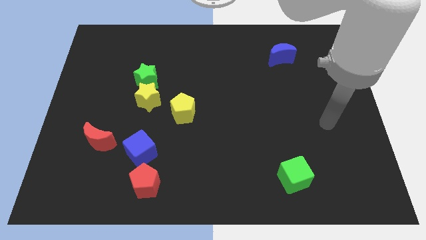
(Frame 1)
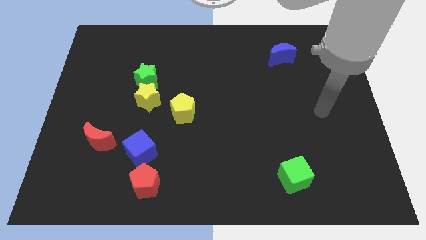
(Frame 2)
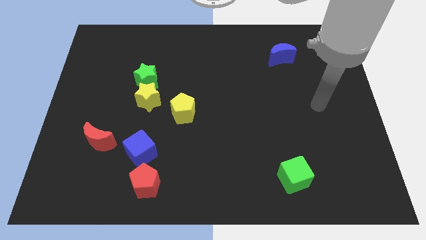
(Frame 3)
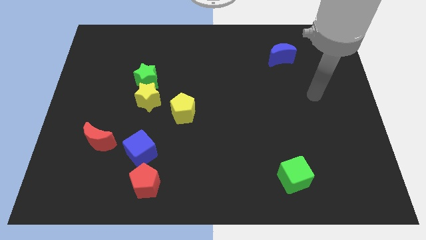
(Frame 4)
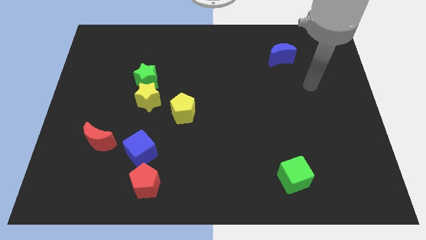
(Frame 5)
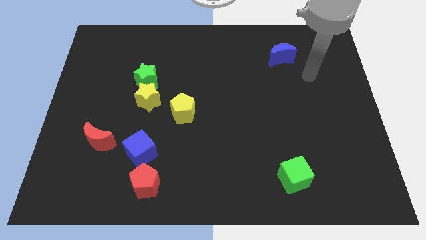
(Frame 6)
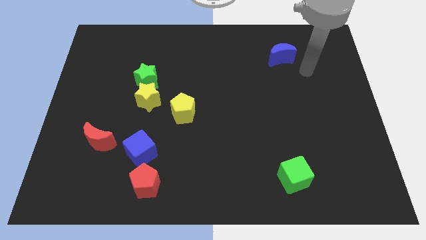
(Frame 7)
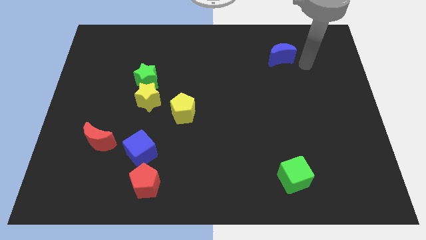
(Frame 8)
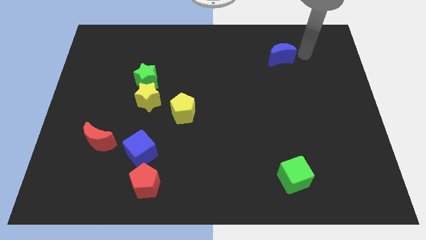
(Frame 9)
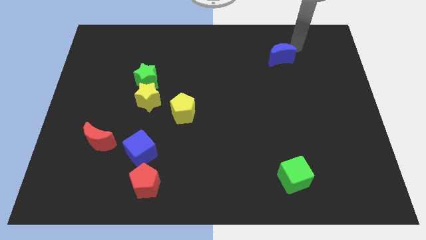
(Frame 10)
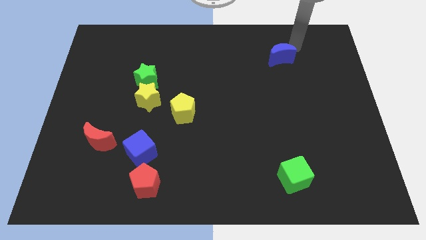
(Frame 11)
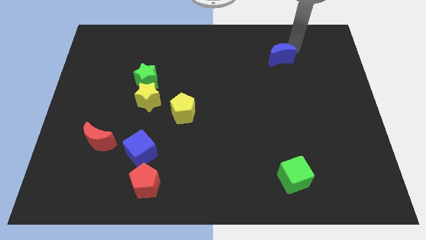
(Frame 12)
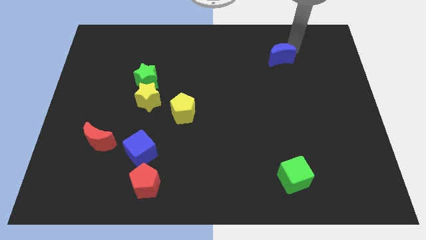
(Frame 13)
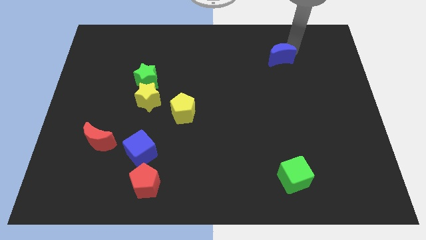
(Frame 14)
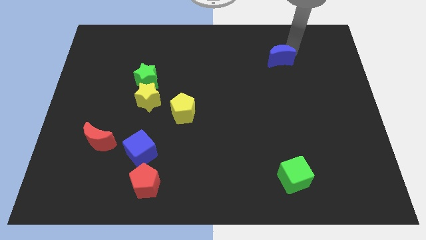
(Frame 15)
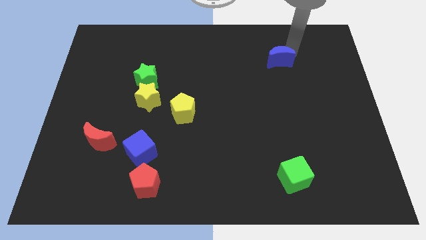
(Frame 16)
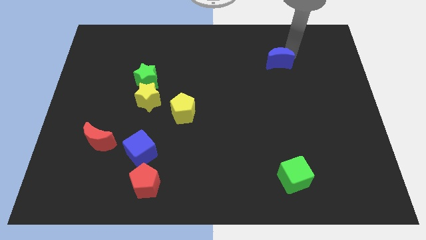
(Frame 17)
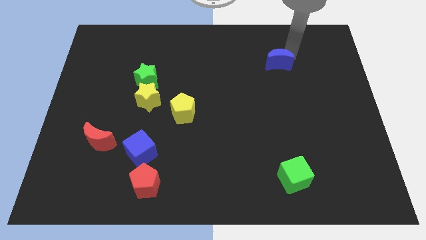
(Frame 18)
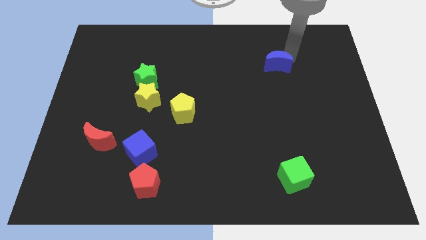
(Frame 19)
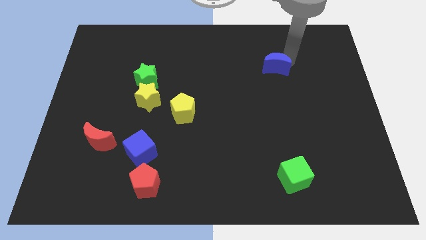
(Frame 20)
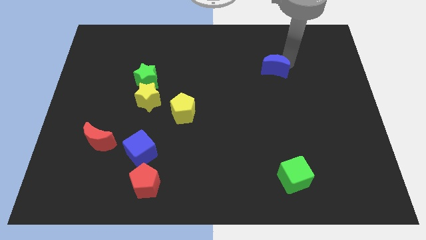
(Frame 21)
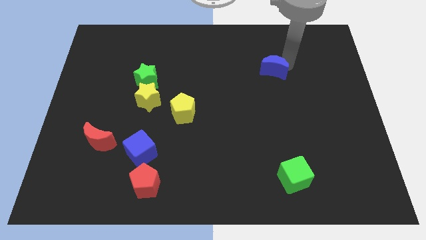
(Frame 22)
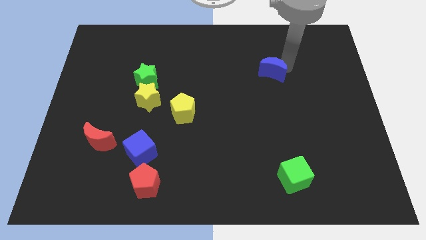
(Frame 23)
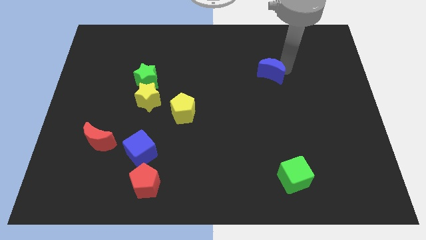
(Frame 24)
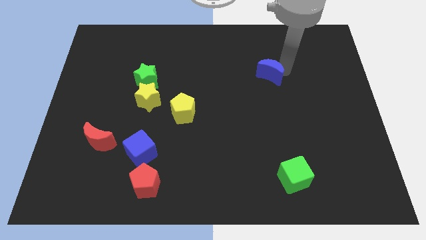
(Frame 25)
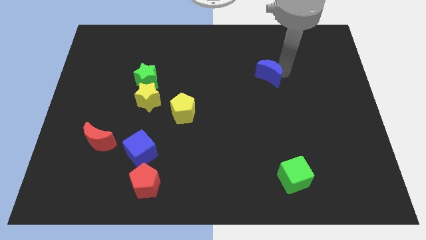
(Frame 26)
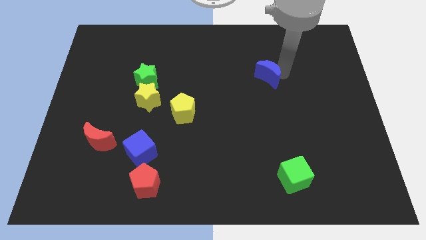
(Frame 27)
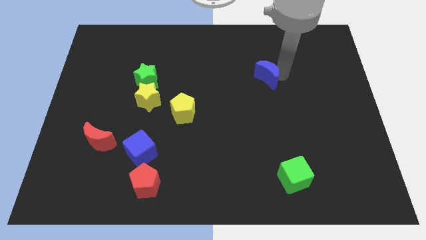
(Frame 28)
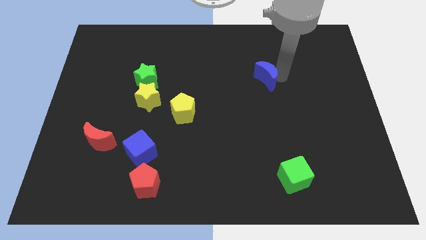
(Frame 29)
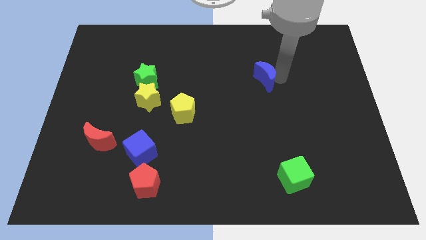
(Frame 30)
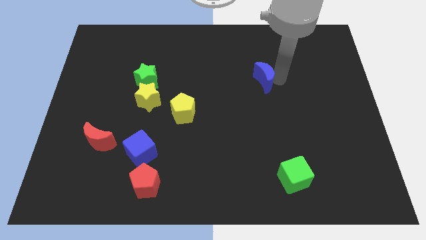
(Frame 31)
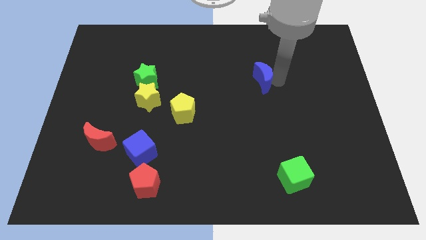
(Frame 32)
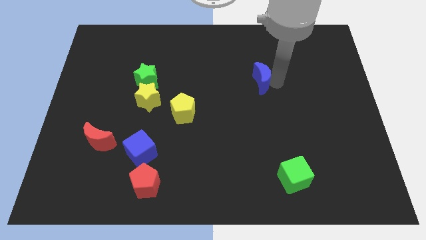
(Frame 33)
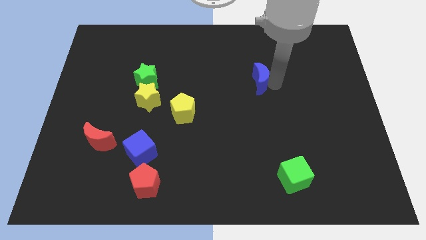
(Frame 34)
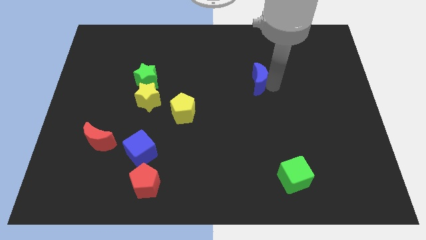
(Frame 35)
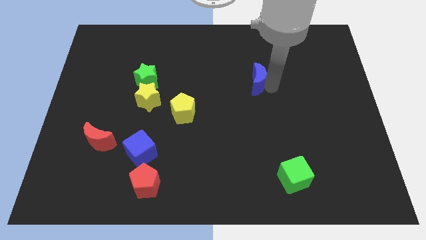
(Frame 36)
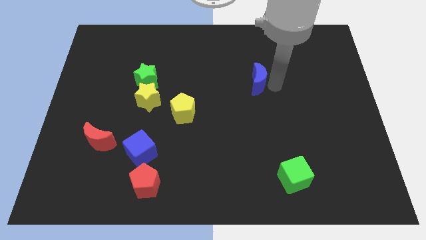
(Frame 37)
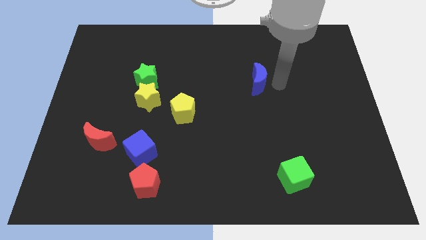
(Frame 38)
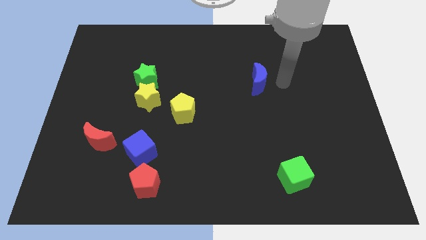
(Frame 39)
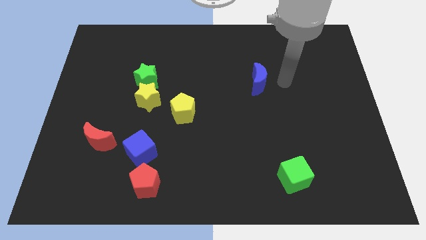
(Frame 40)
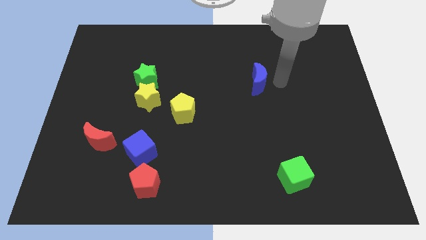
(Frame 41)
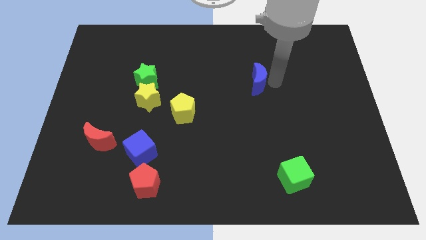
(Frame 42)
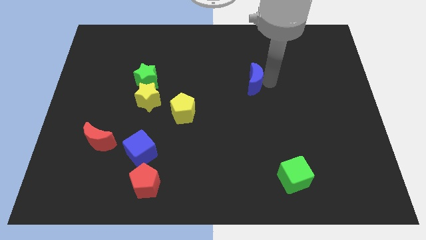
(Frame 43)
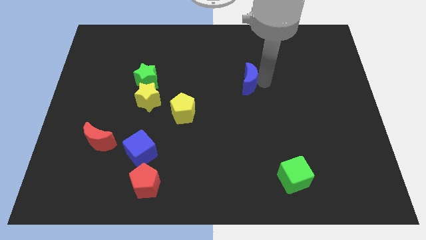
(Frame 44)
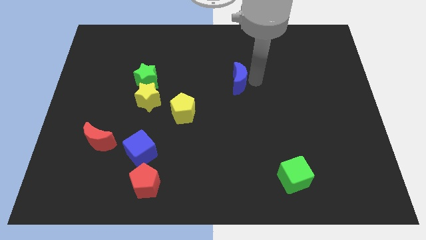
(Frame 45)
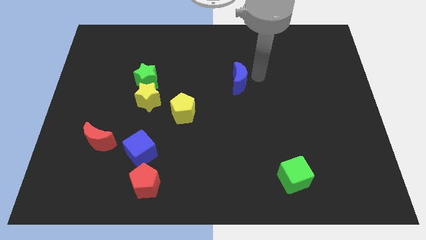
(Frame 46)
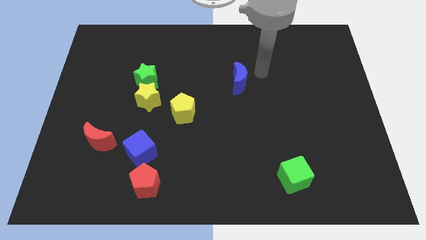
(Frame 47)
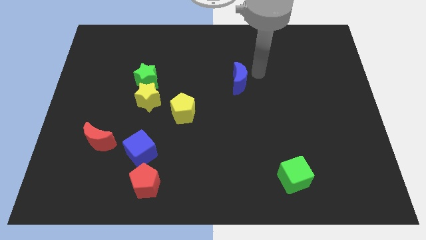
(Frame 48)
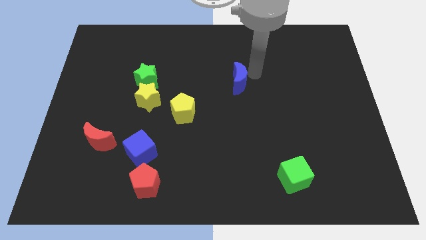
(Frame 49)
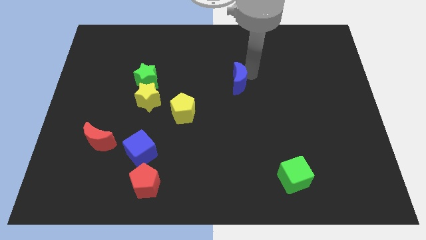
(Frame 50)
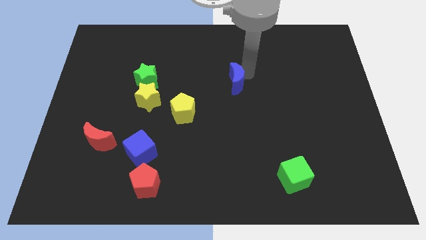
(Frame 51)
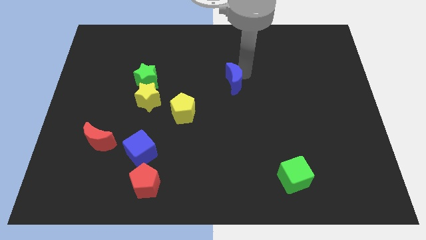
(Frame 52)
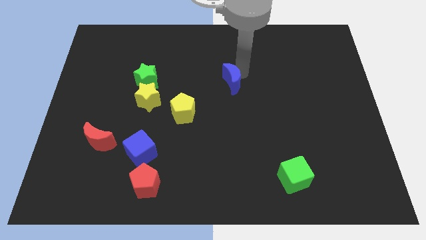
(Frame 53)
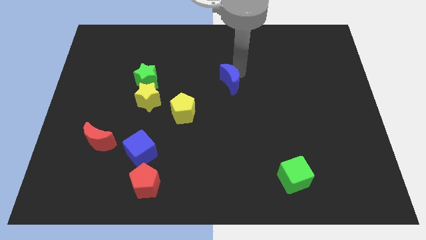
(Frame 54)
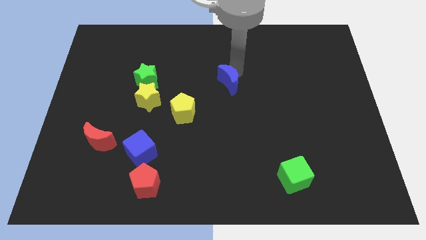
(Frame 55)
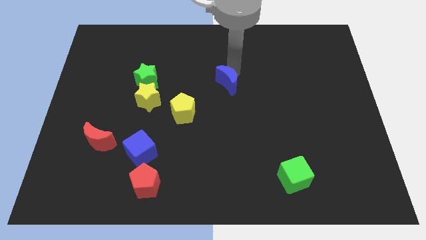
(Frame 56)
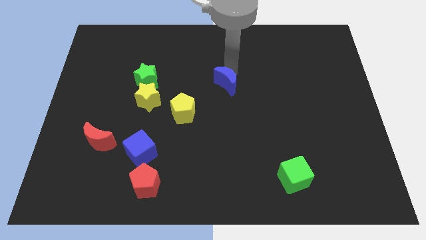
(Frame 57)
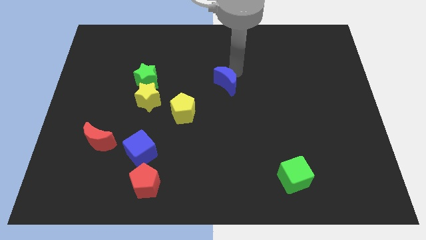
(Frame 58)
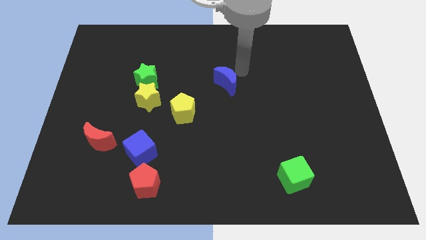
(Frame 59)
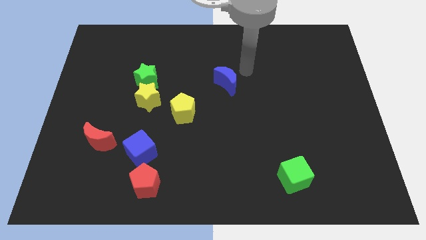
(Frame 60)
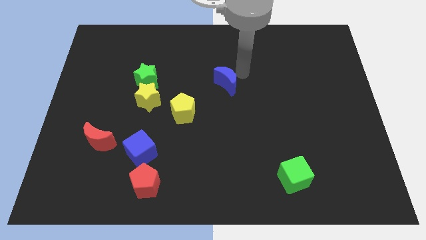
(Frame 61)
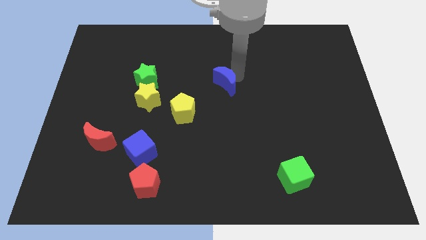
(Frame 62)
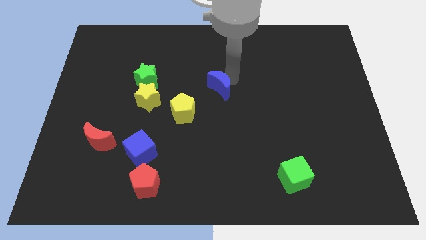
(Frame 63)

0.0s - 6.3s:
push the blue moon to the top right side of the yellow pentagon

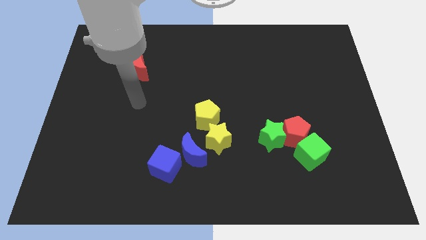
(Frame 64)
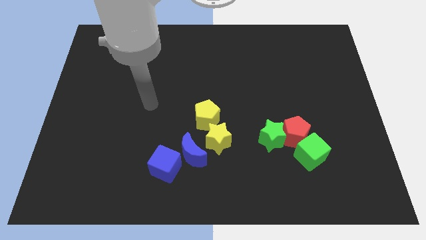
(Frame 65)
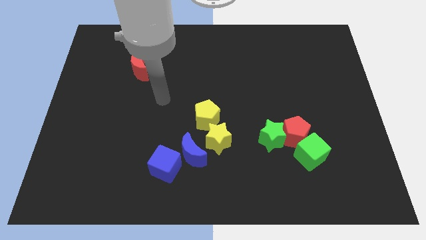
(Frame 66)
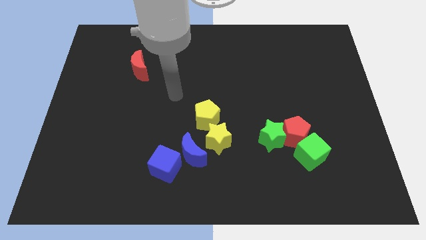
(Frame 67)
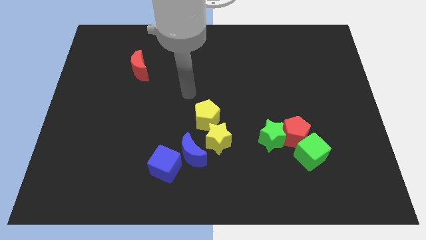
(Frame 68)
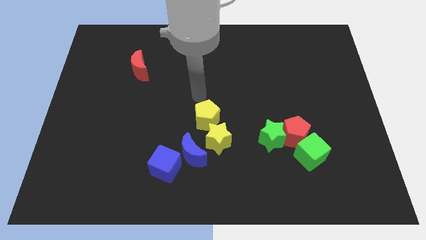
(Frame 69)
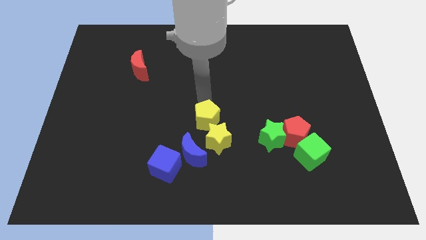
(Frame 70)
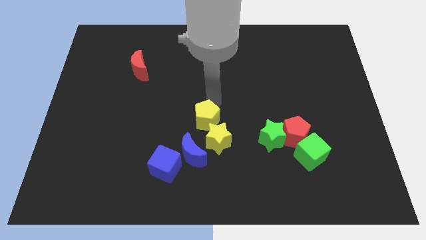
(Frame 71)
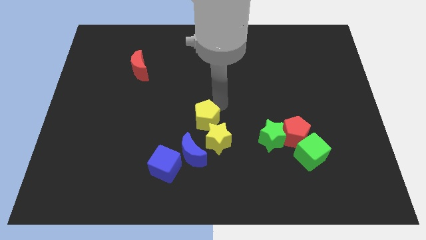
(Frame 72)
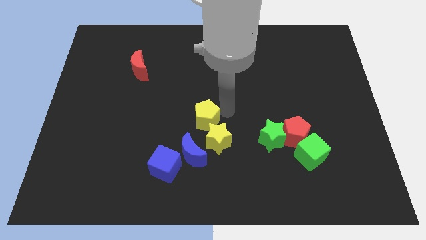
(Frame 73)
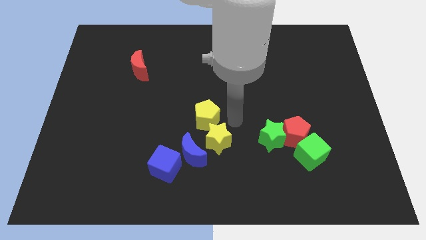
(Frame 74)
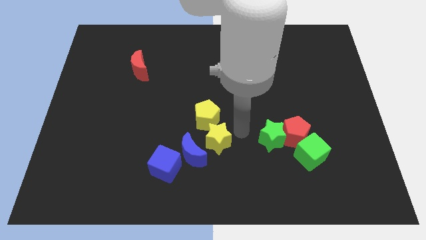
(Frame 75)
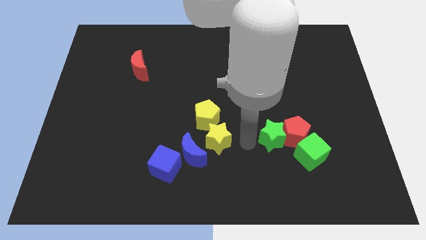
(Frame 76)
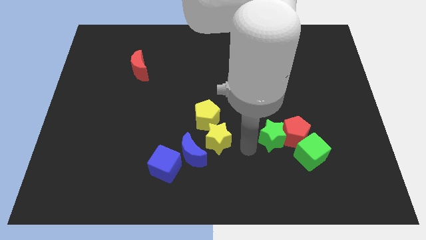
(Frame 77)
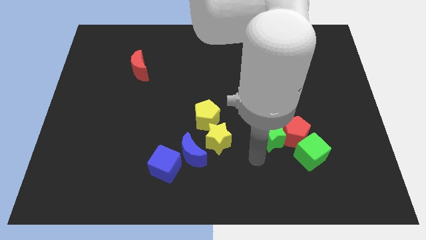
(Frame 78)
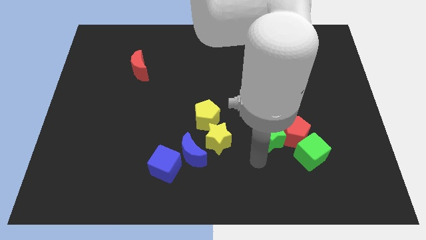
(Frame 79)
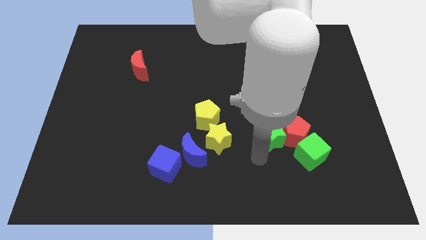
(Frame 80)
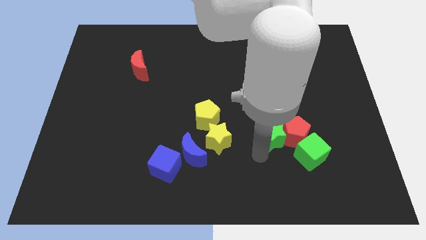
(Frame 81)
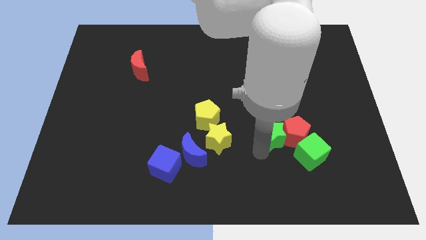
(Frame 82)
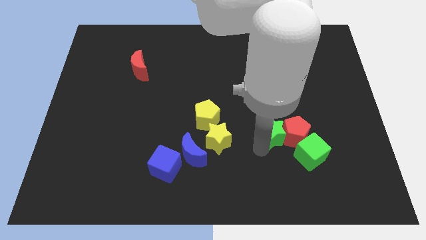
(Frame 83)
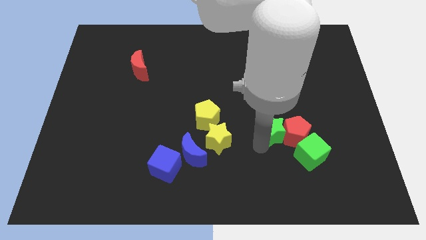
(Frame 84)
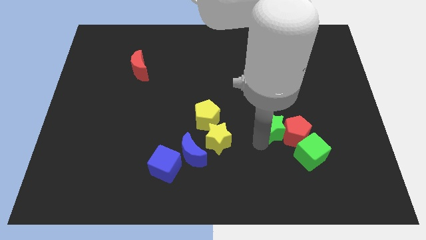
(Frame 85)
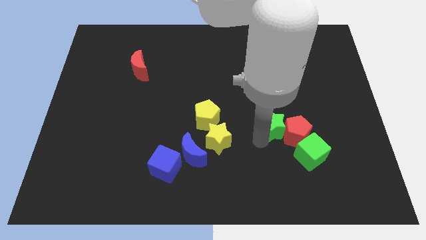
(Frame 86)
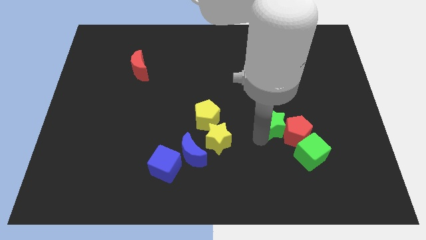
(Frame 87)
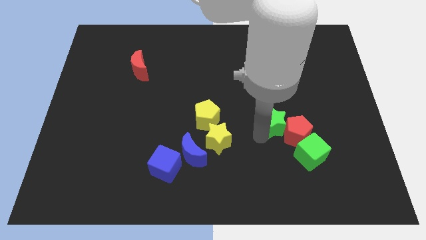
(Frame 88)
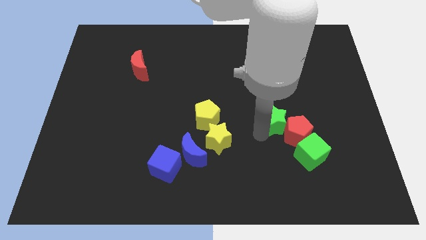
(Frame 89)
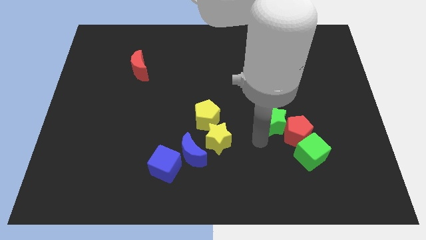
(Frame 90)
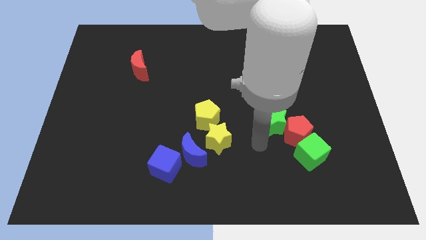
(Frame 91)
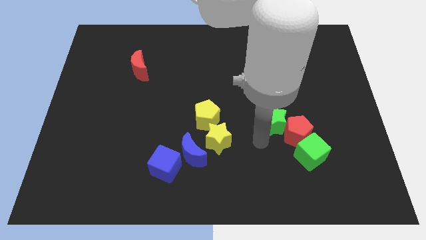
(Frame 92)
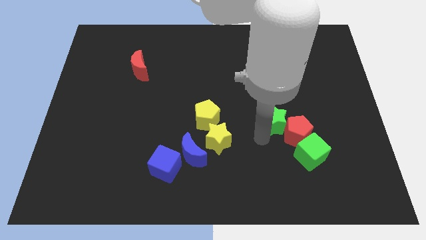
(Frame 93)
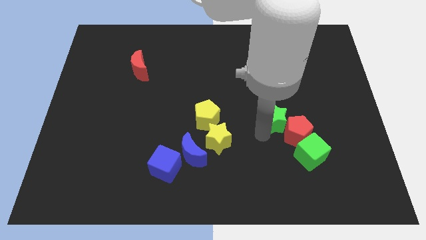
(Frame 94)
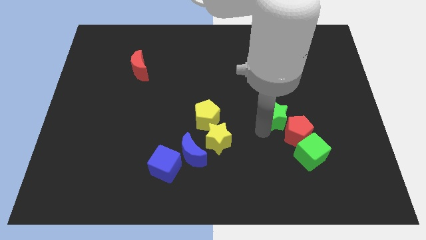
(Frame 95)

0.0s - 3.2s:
slide the green star to the top side of the red pentagon
